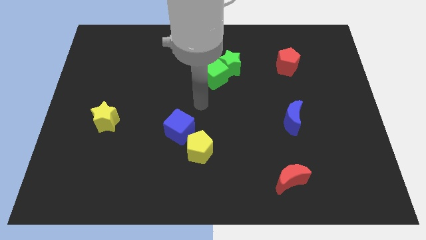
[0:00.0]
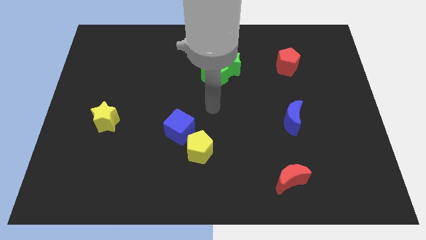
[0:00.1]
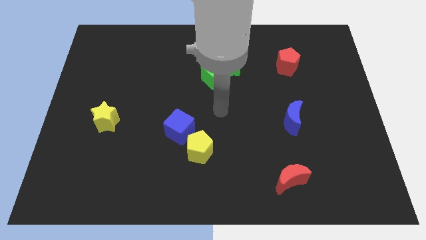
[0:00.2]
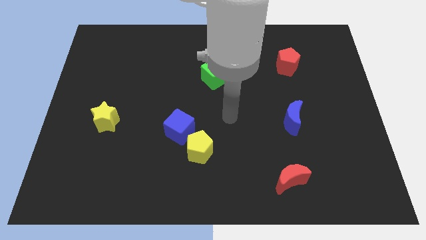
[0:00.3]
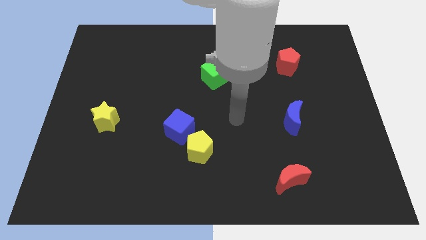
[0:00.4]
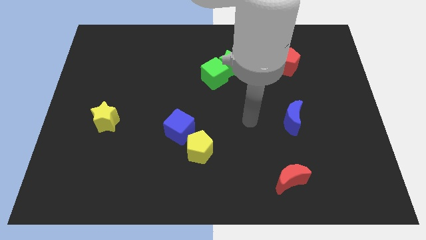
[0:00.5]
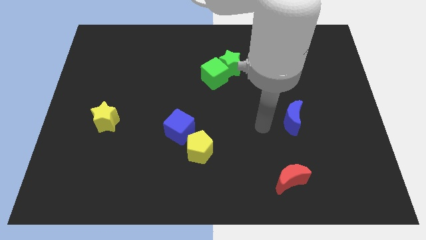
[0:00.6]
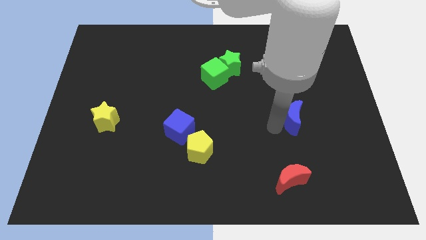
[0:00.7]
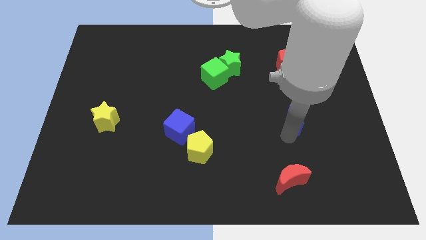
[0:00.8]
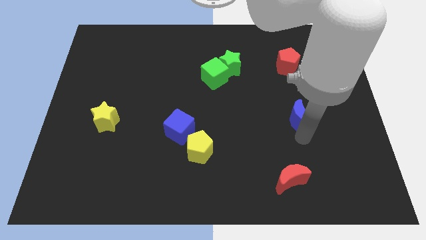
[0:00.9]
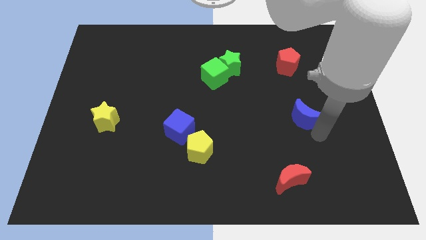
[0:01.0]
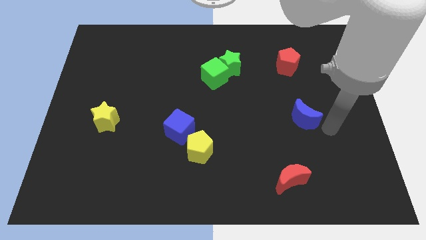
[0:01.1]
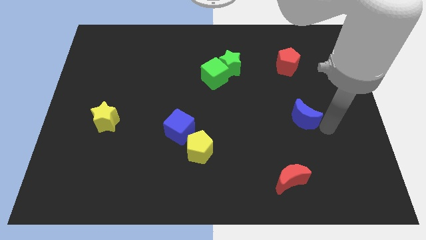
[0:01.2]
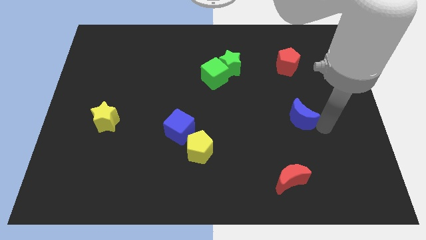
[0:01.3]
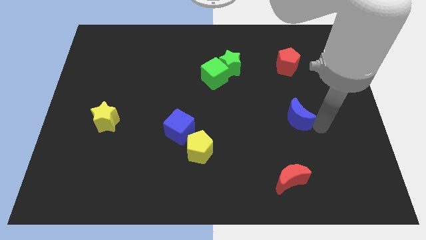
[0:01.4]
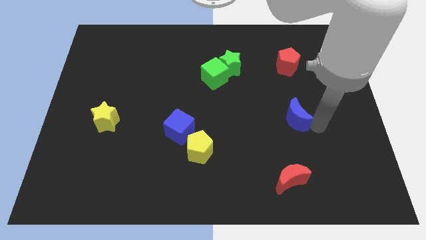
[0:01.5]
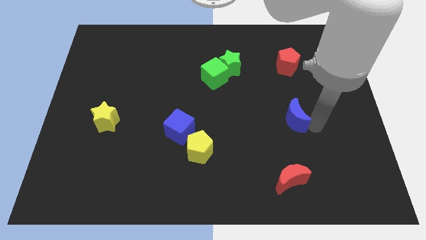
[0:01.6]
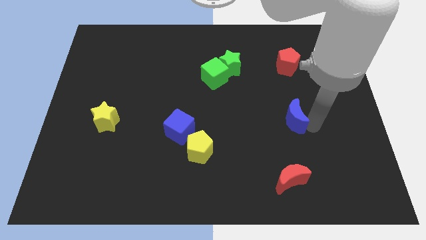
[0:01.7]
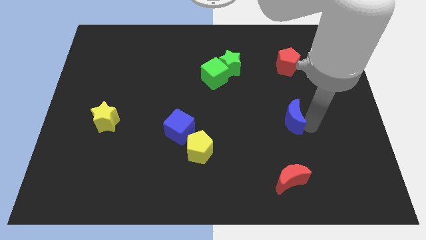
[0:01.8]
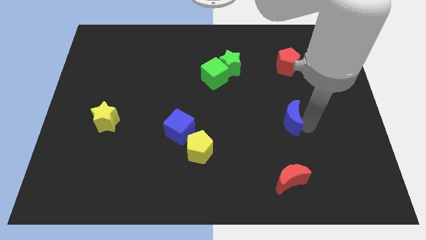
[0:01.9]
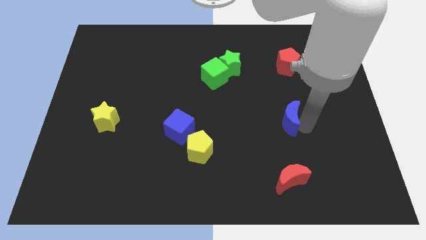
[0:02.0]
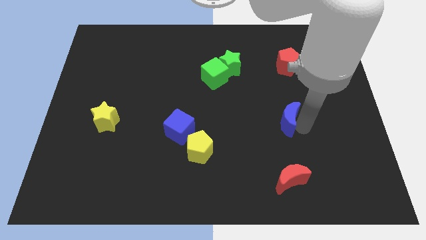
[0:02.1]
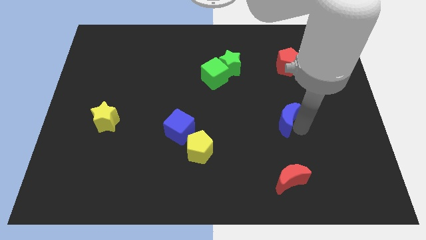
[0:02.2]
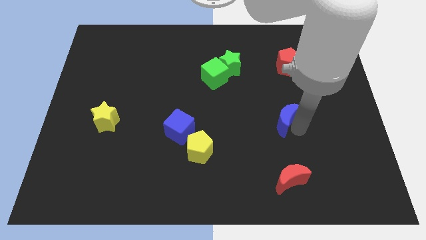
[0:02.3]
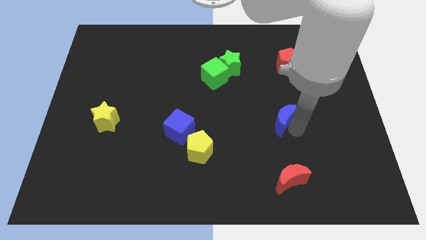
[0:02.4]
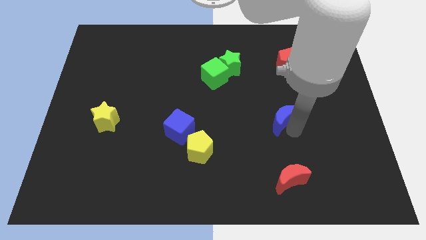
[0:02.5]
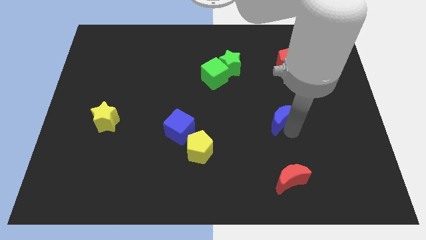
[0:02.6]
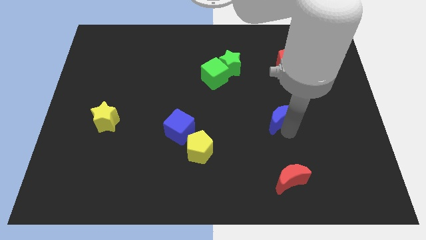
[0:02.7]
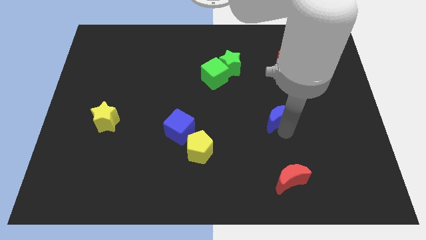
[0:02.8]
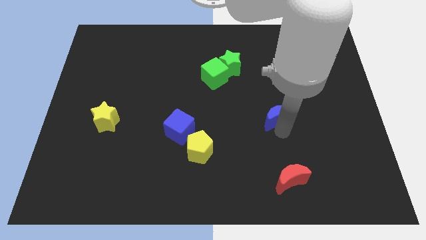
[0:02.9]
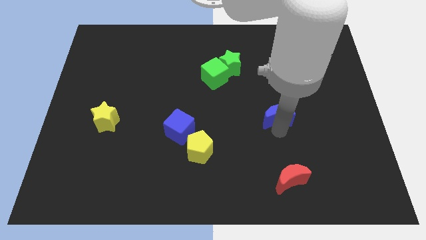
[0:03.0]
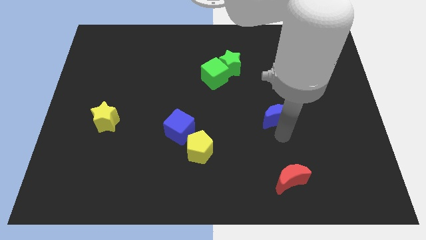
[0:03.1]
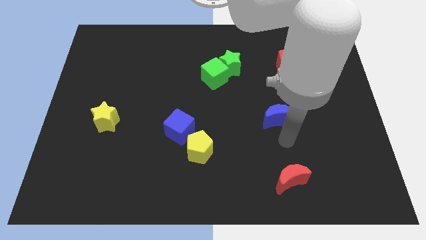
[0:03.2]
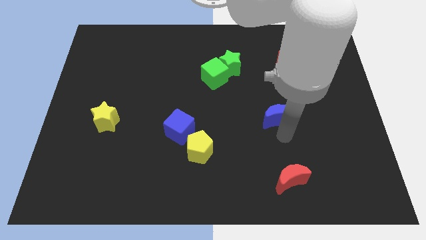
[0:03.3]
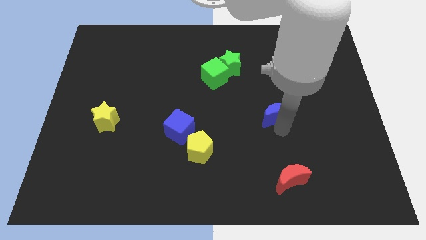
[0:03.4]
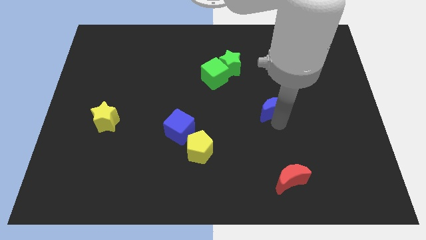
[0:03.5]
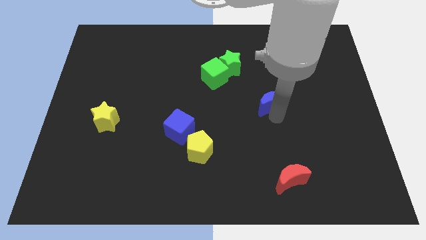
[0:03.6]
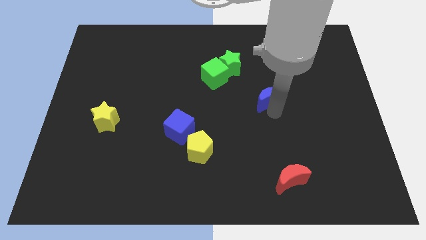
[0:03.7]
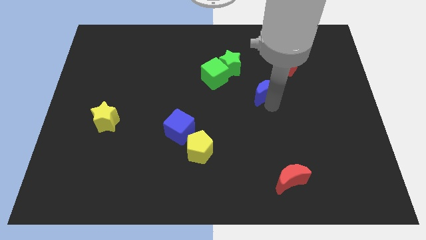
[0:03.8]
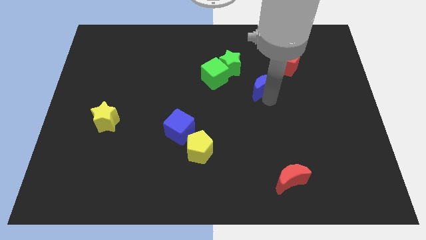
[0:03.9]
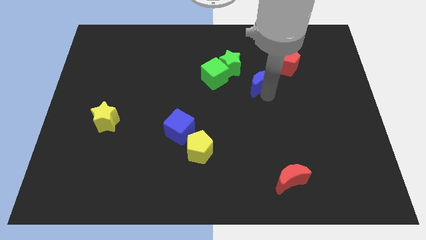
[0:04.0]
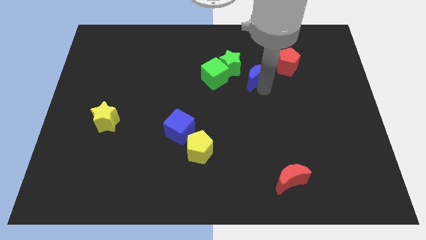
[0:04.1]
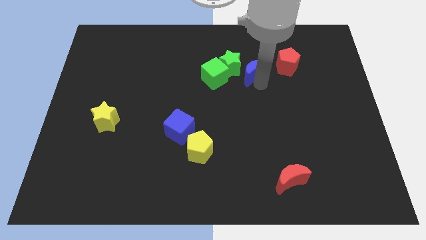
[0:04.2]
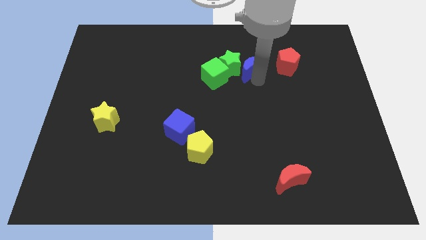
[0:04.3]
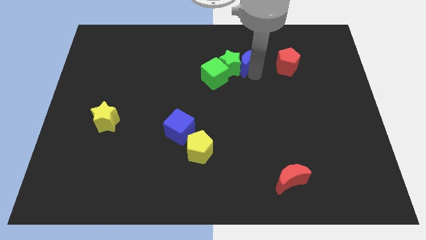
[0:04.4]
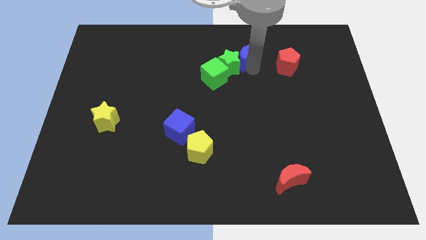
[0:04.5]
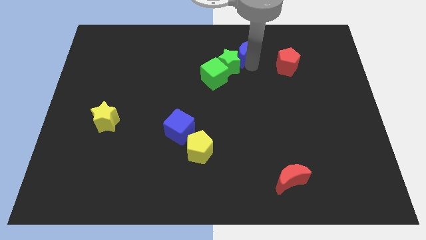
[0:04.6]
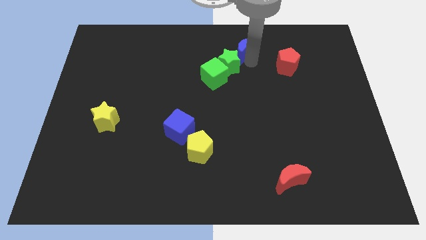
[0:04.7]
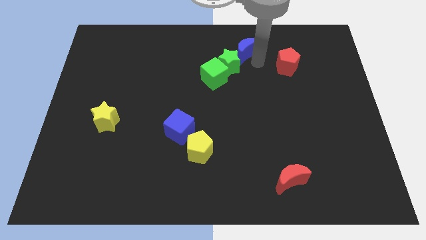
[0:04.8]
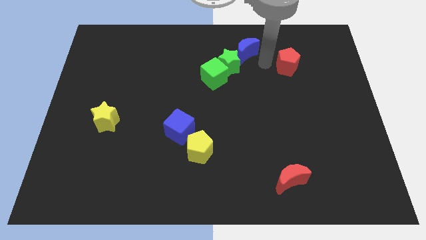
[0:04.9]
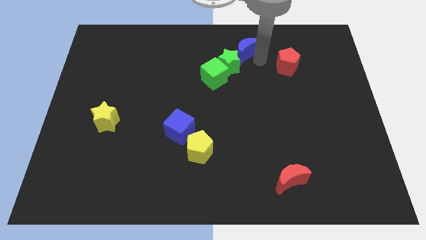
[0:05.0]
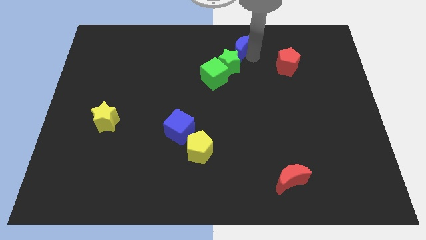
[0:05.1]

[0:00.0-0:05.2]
move the blue moon to the top

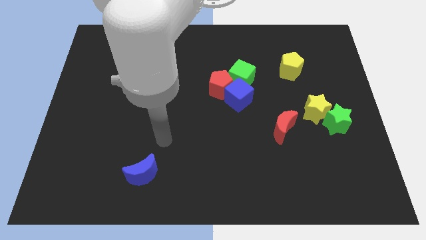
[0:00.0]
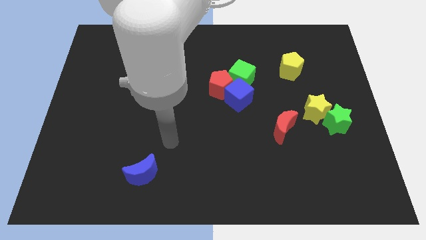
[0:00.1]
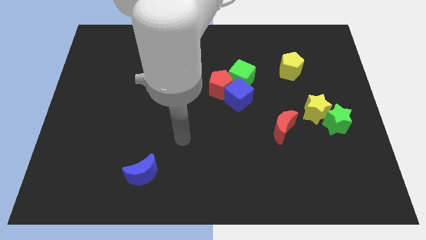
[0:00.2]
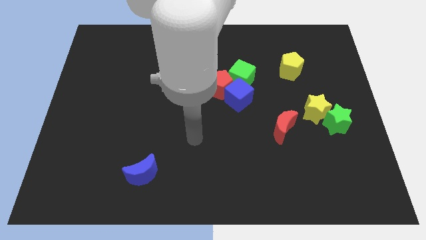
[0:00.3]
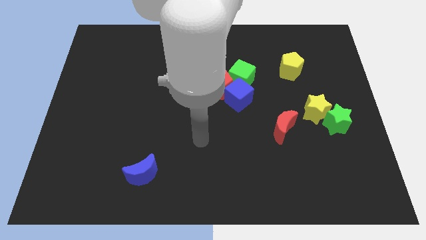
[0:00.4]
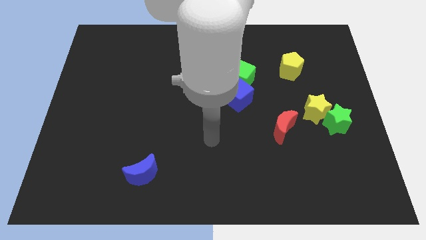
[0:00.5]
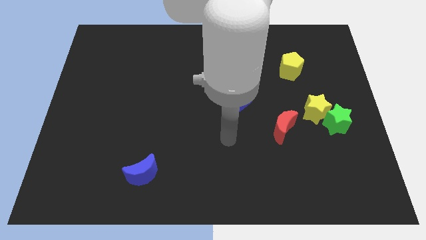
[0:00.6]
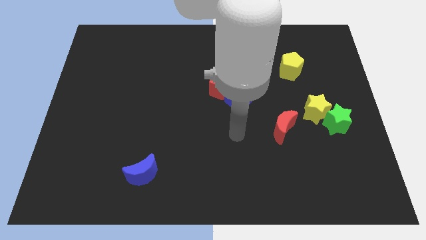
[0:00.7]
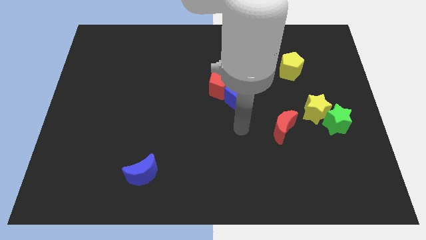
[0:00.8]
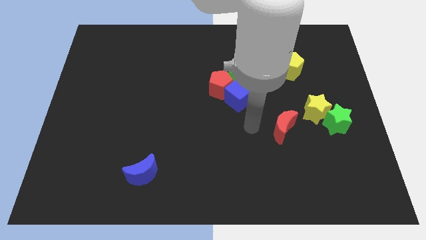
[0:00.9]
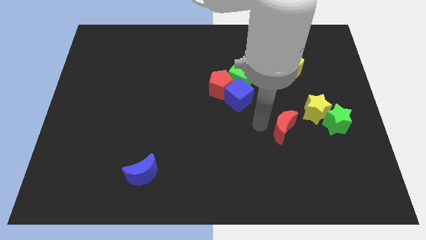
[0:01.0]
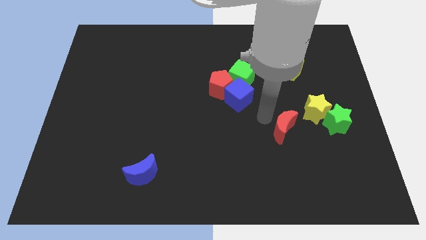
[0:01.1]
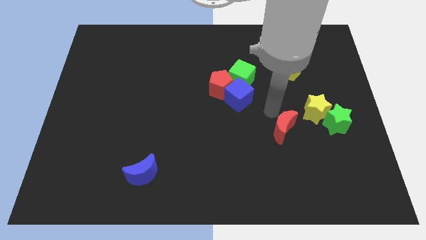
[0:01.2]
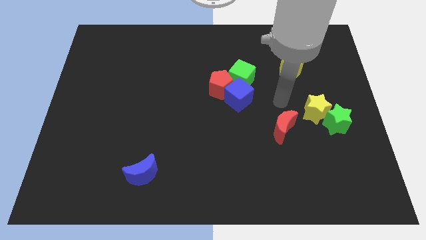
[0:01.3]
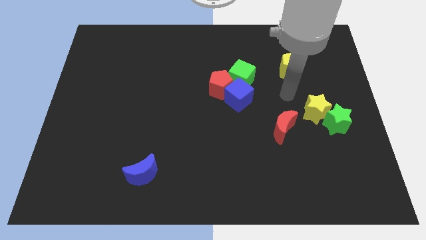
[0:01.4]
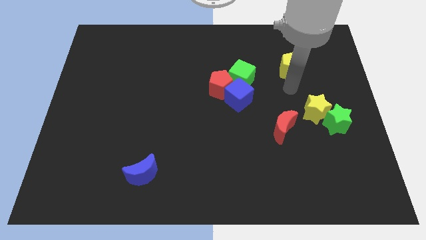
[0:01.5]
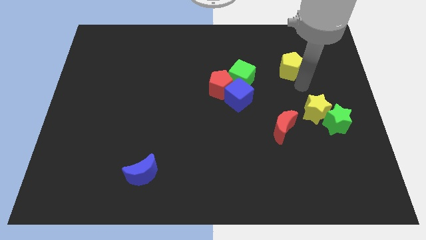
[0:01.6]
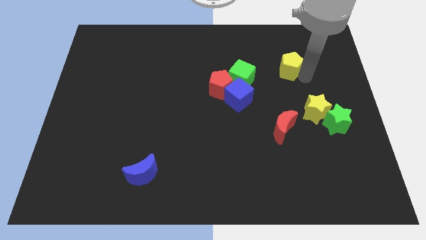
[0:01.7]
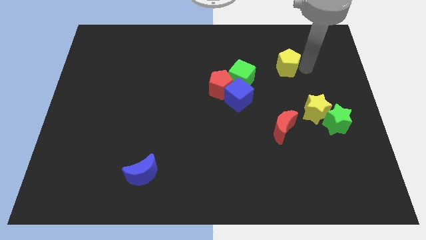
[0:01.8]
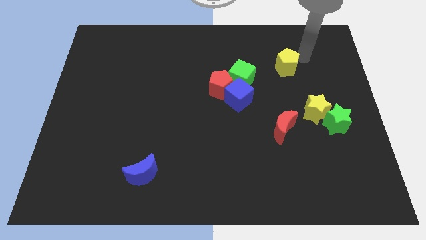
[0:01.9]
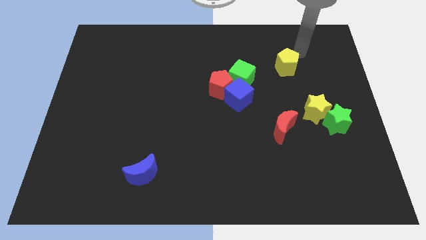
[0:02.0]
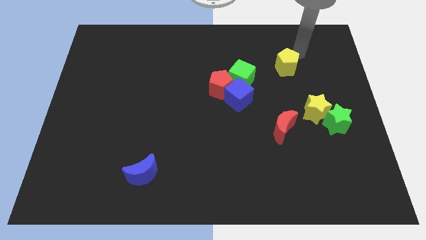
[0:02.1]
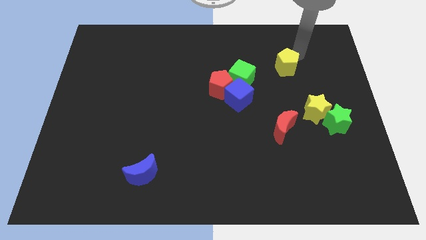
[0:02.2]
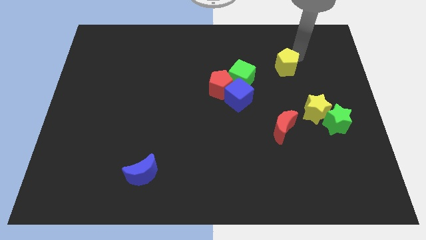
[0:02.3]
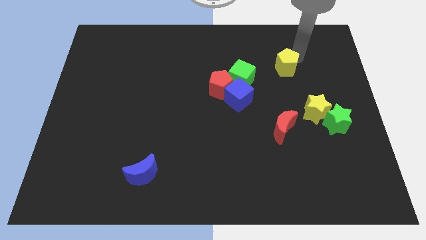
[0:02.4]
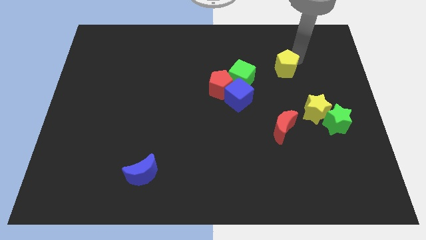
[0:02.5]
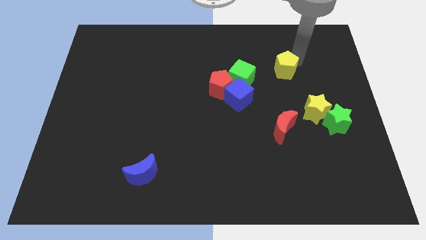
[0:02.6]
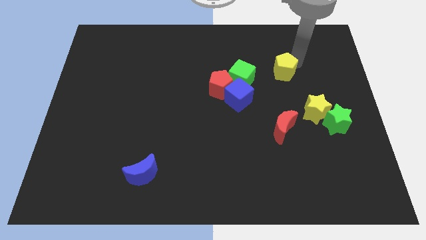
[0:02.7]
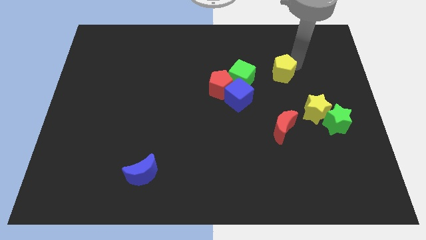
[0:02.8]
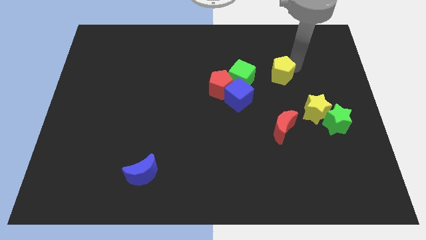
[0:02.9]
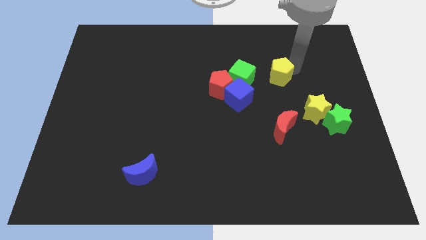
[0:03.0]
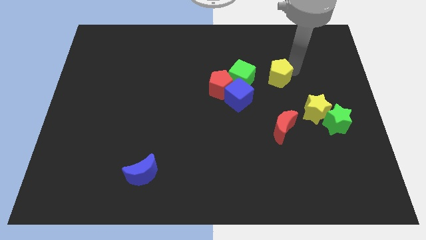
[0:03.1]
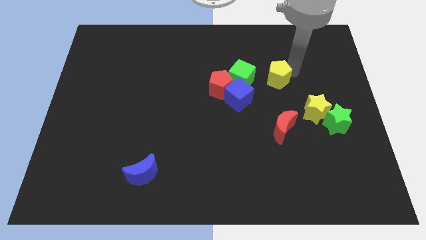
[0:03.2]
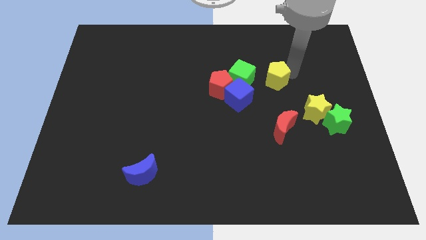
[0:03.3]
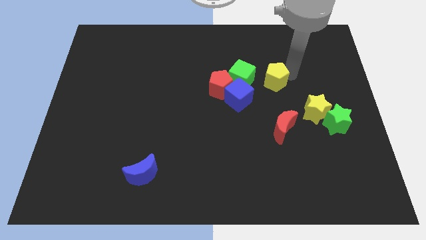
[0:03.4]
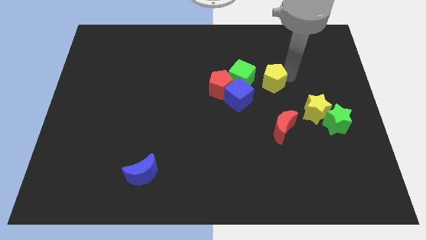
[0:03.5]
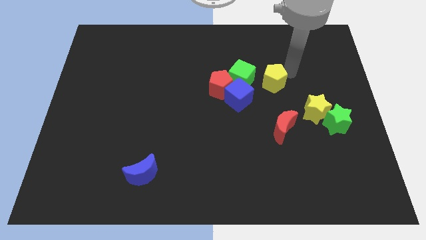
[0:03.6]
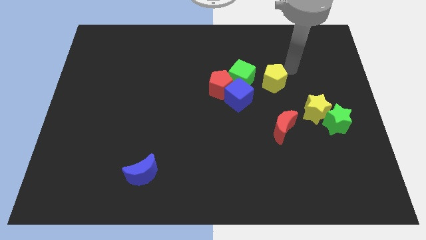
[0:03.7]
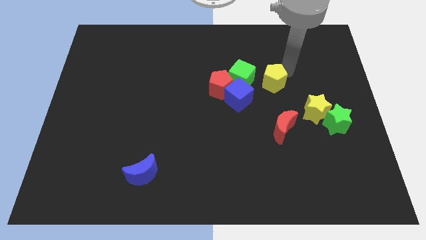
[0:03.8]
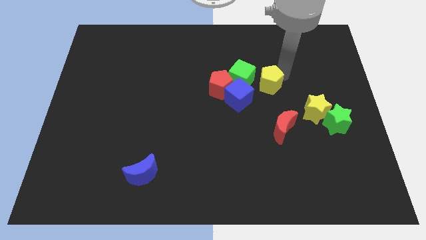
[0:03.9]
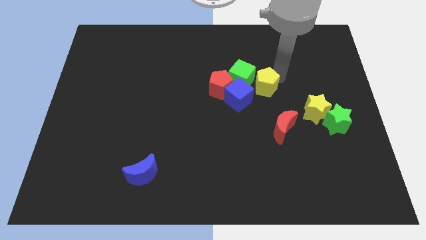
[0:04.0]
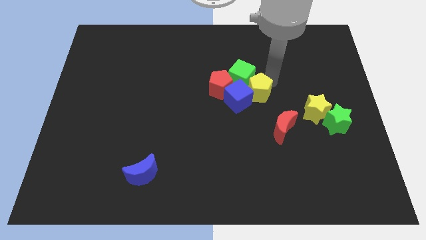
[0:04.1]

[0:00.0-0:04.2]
slide the yellow pentagon to the middle of the board
